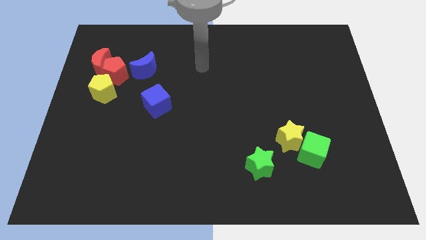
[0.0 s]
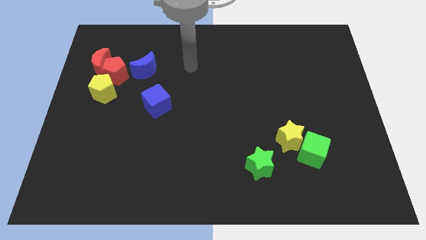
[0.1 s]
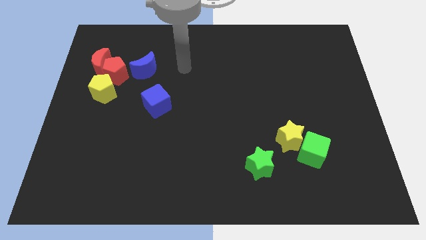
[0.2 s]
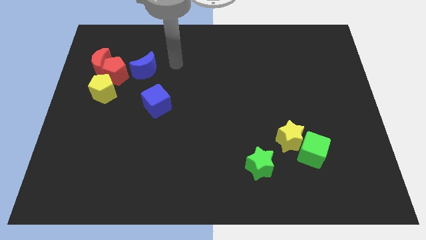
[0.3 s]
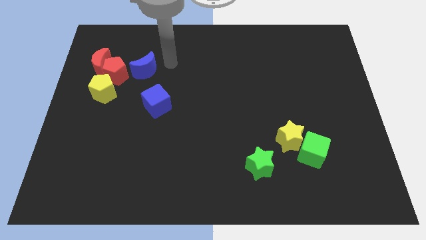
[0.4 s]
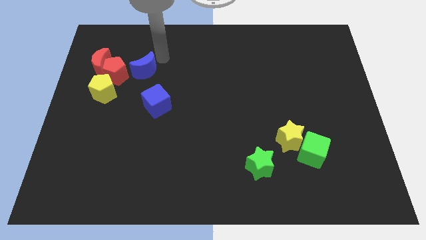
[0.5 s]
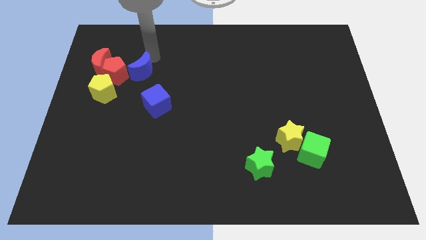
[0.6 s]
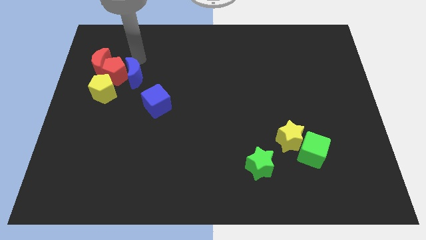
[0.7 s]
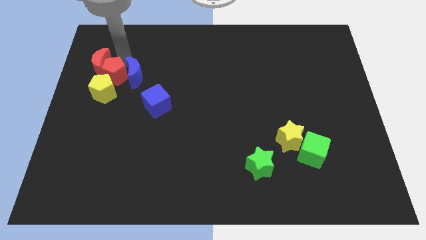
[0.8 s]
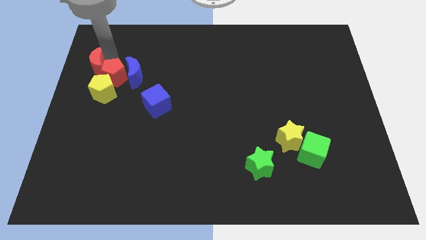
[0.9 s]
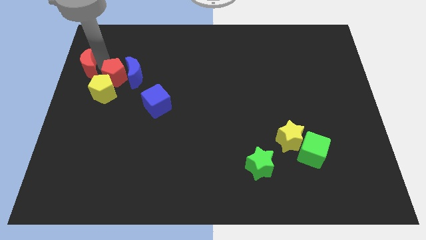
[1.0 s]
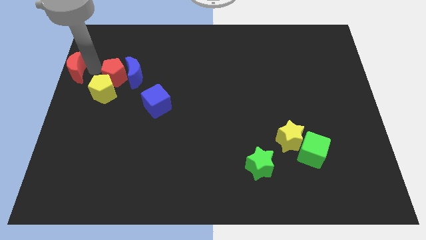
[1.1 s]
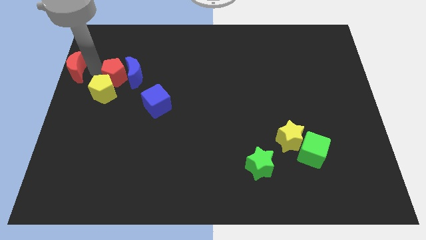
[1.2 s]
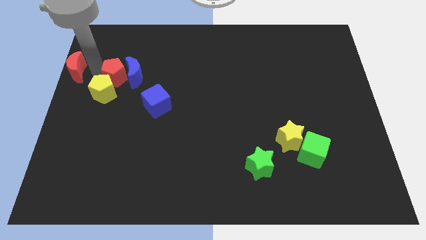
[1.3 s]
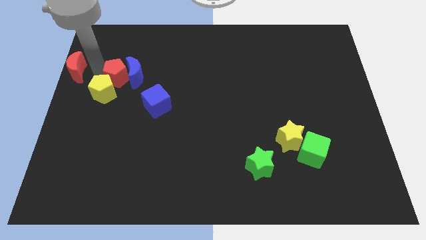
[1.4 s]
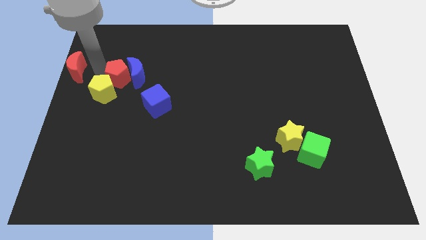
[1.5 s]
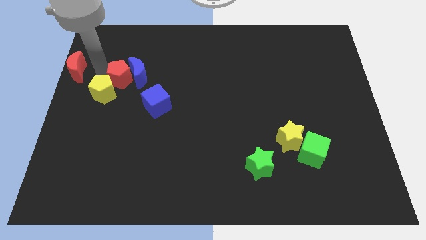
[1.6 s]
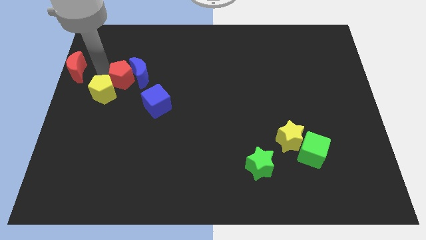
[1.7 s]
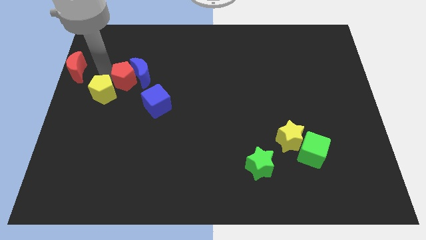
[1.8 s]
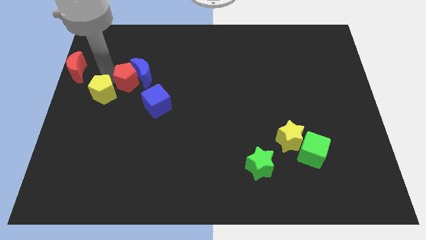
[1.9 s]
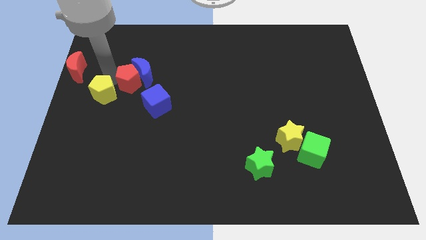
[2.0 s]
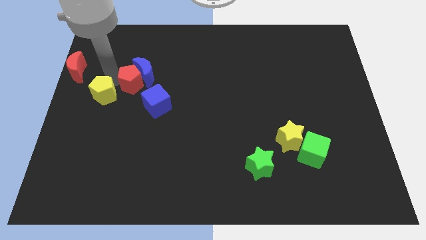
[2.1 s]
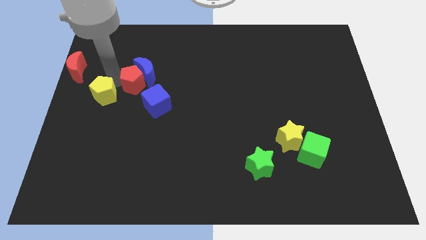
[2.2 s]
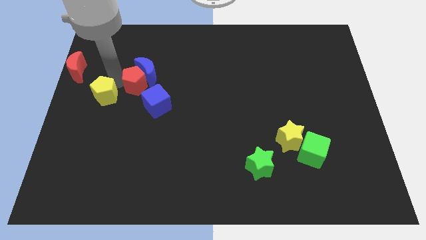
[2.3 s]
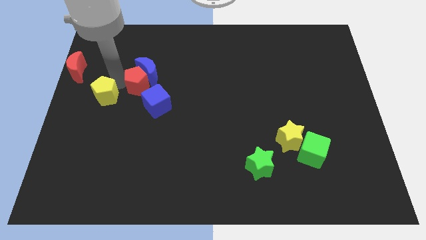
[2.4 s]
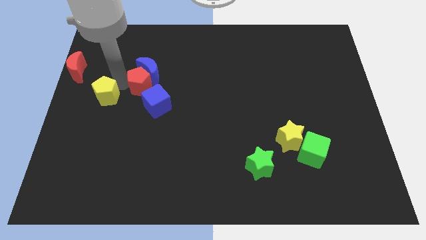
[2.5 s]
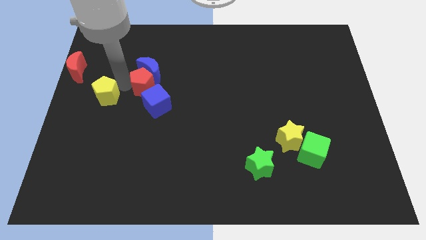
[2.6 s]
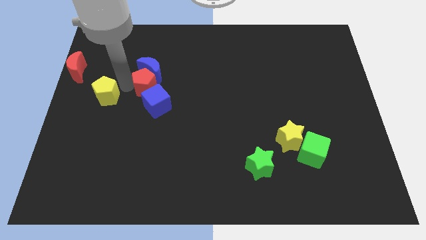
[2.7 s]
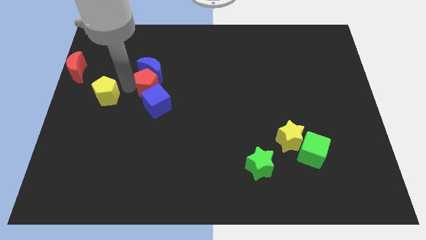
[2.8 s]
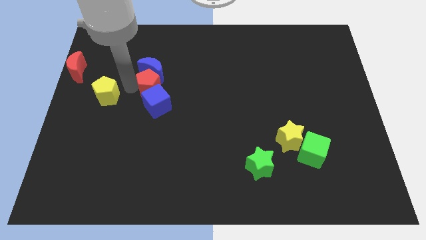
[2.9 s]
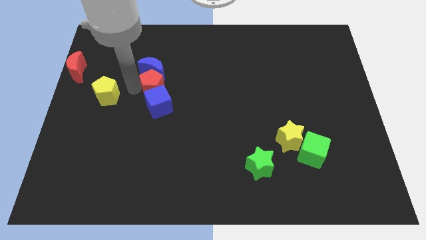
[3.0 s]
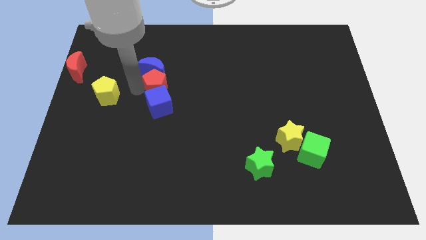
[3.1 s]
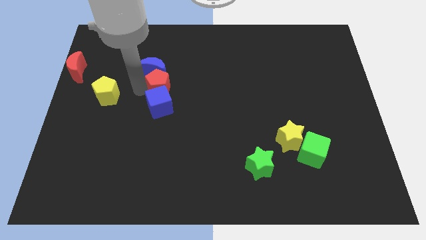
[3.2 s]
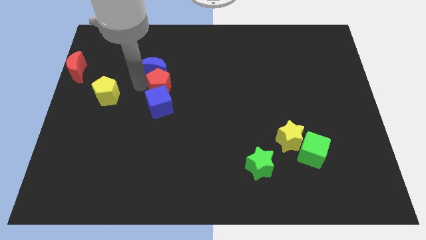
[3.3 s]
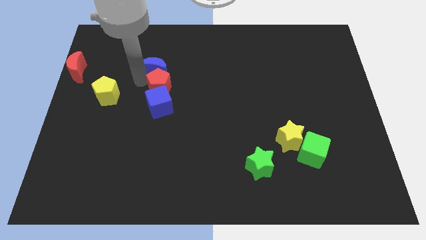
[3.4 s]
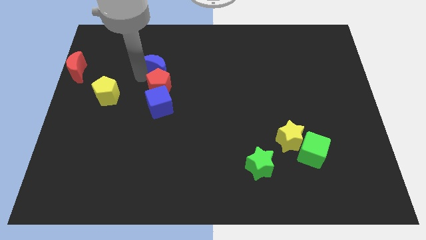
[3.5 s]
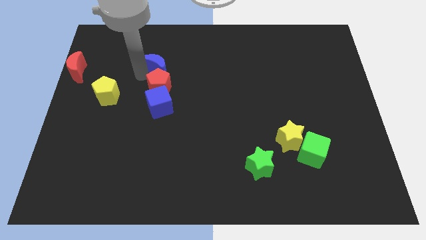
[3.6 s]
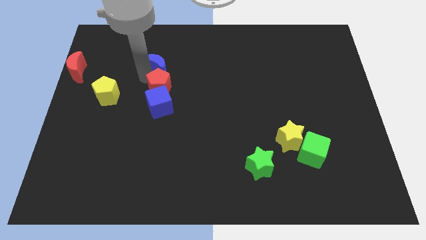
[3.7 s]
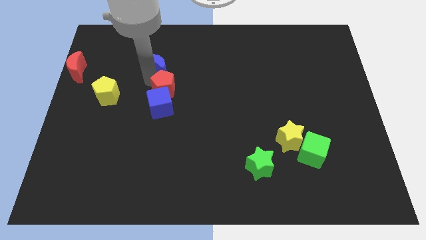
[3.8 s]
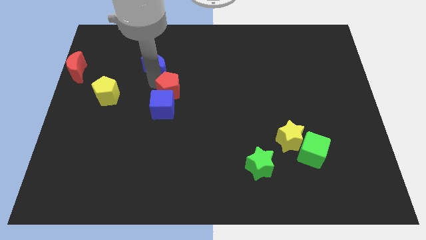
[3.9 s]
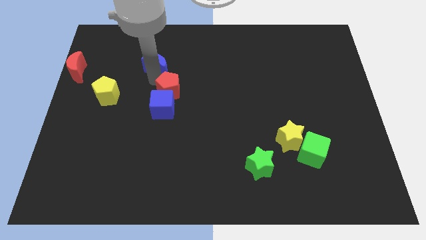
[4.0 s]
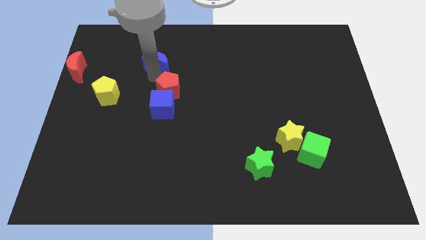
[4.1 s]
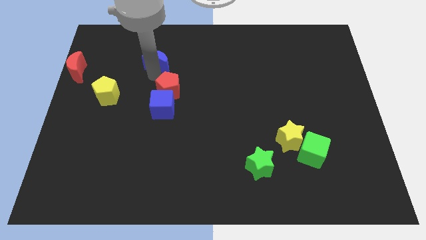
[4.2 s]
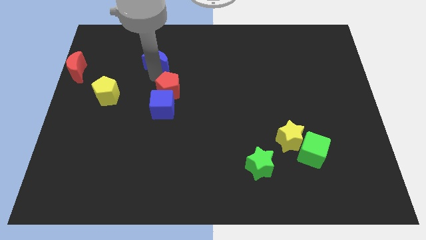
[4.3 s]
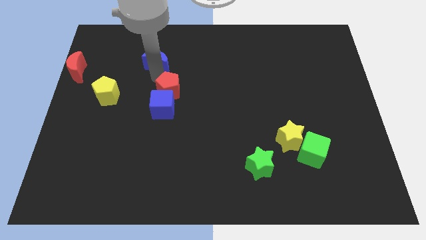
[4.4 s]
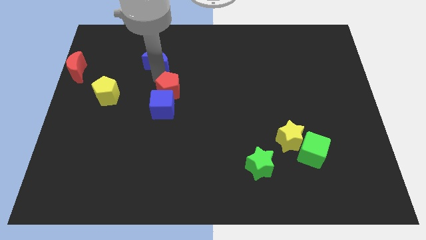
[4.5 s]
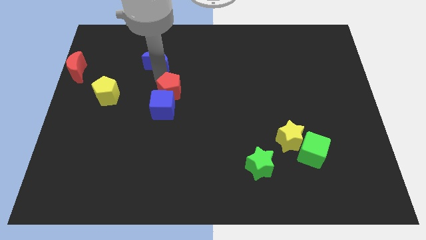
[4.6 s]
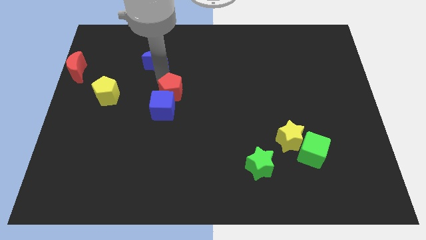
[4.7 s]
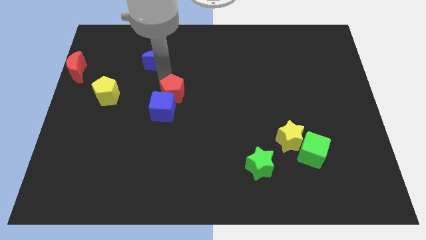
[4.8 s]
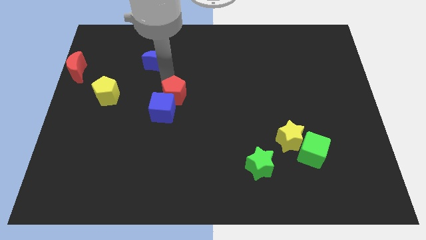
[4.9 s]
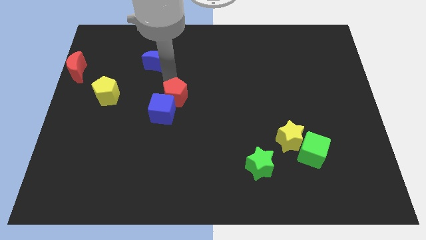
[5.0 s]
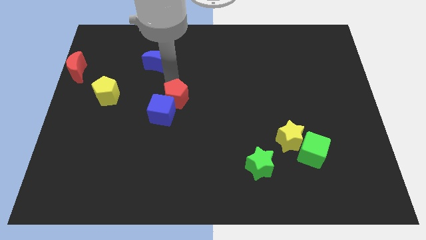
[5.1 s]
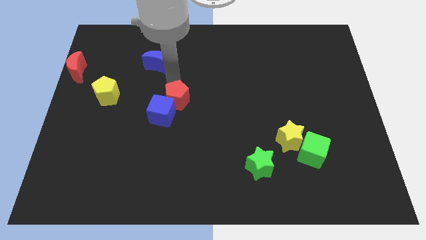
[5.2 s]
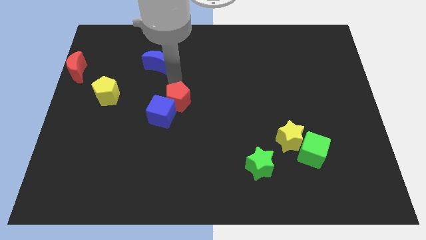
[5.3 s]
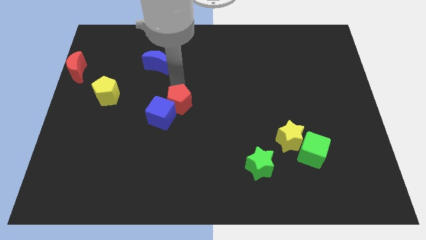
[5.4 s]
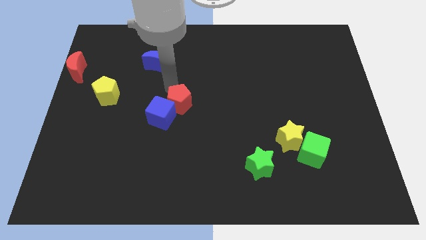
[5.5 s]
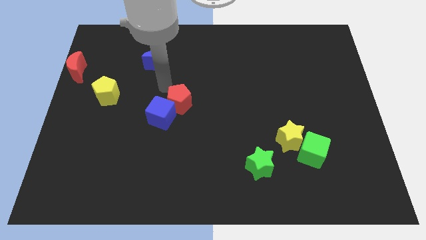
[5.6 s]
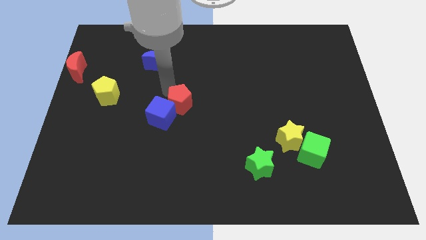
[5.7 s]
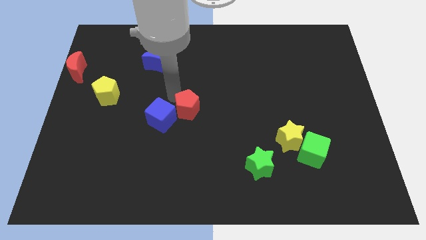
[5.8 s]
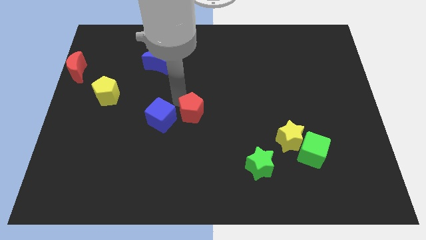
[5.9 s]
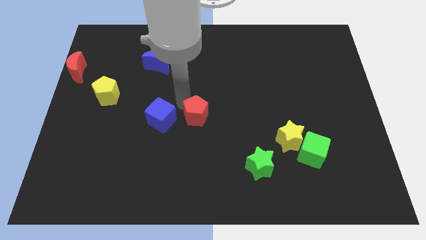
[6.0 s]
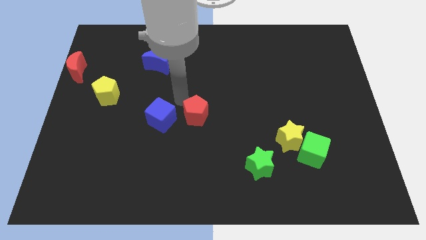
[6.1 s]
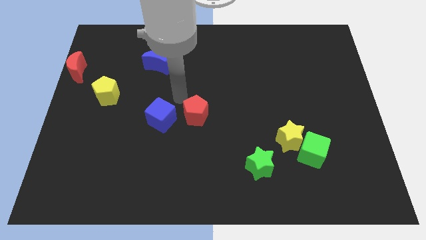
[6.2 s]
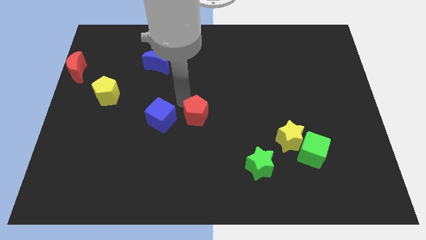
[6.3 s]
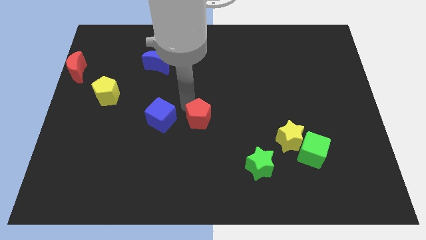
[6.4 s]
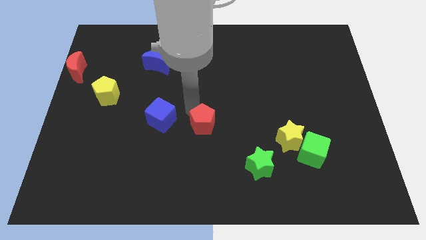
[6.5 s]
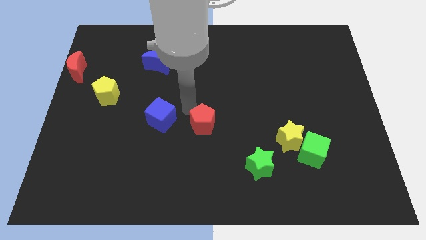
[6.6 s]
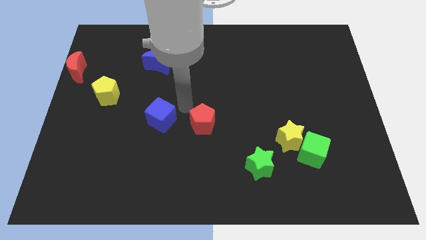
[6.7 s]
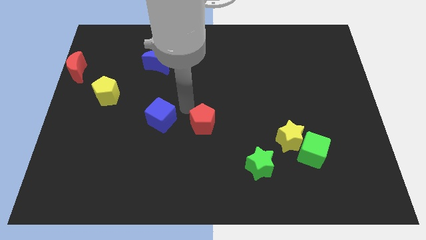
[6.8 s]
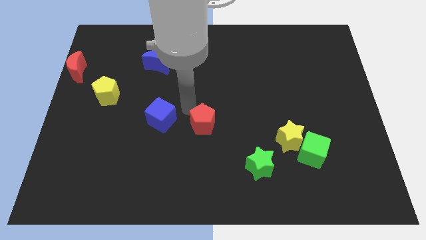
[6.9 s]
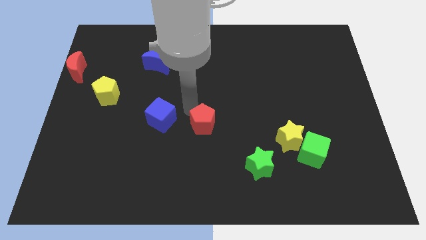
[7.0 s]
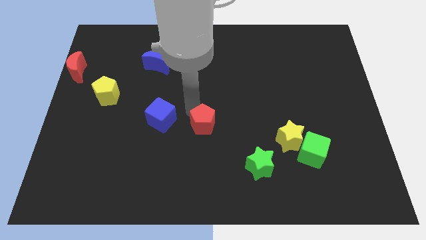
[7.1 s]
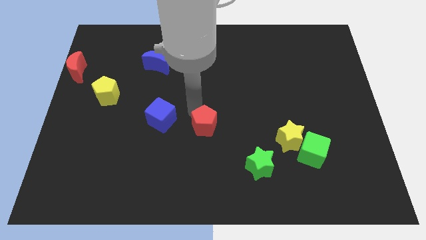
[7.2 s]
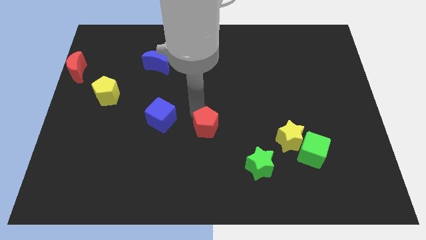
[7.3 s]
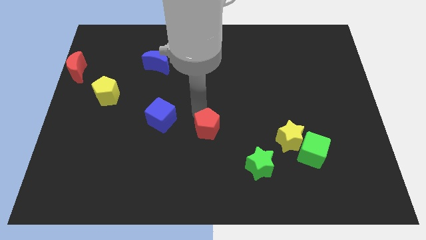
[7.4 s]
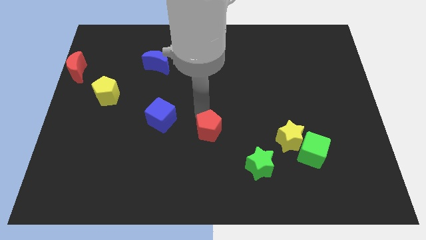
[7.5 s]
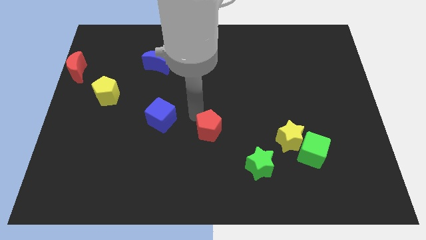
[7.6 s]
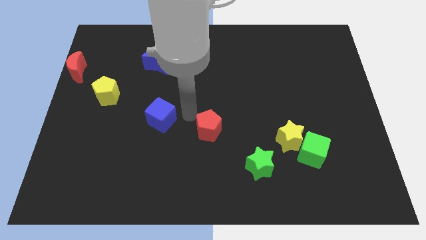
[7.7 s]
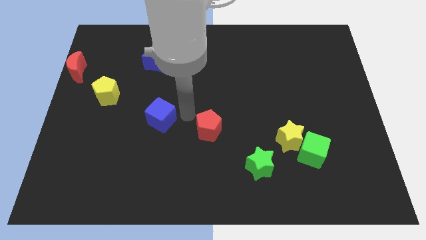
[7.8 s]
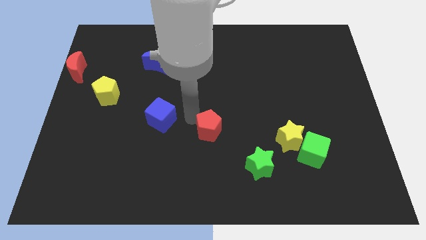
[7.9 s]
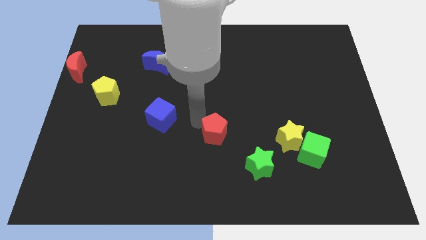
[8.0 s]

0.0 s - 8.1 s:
slide the red pentagon diagonally up and to the left of the green star
